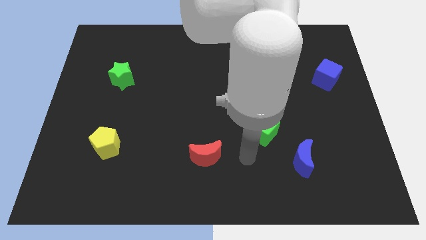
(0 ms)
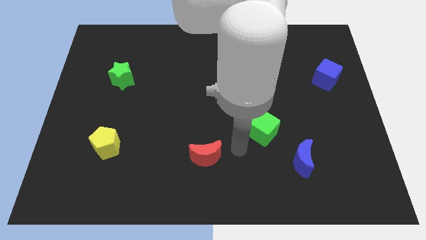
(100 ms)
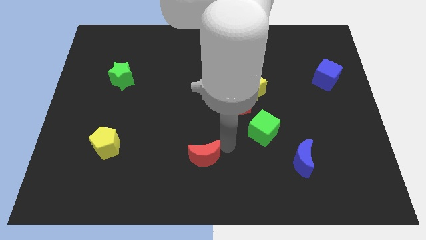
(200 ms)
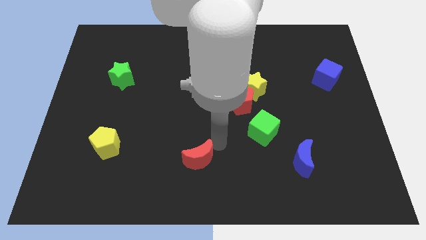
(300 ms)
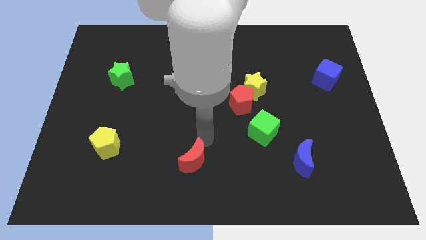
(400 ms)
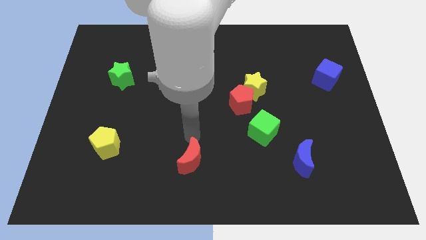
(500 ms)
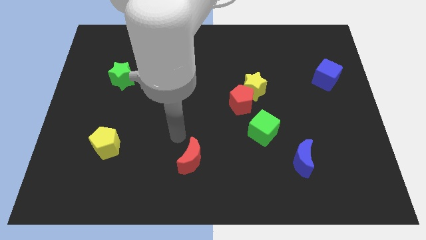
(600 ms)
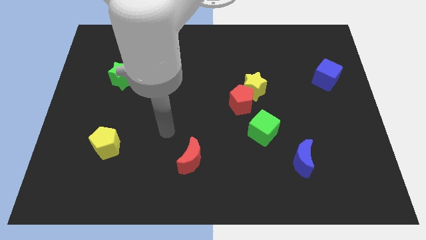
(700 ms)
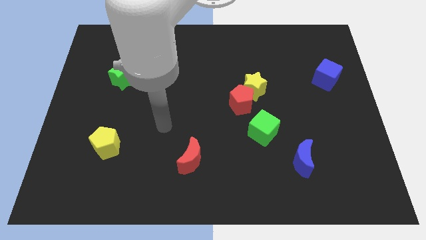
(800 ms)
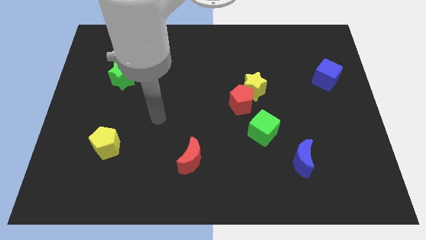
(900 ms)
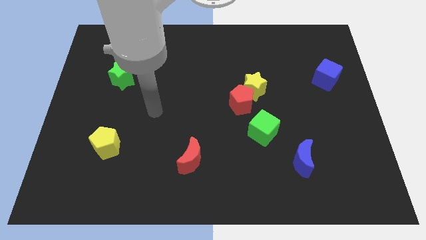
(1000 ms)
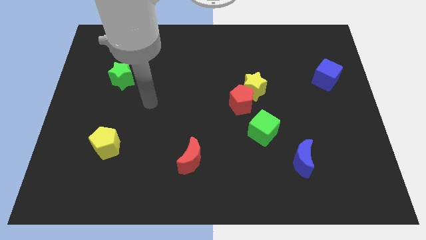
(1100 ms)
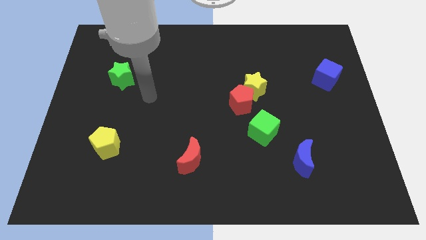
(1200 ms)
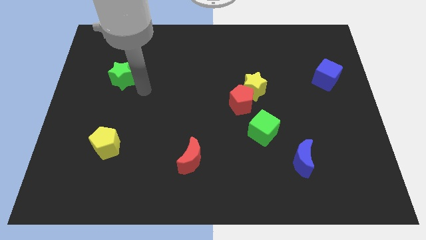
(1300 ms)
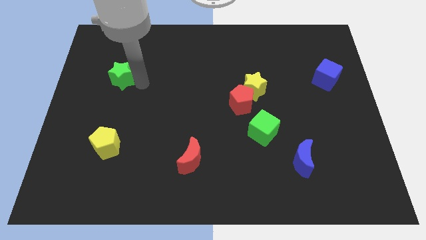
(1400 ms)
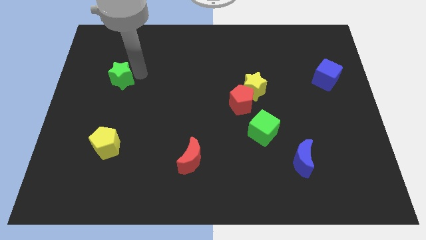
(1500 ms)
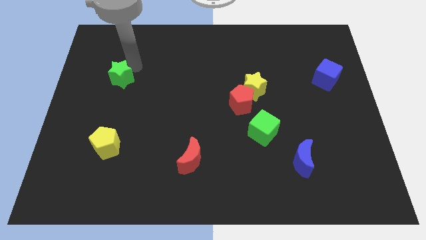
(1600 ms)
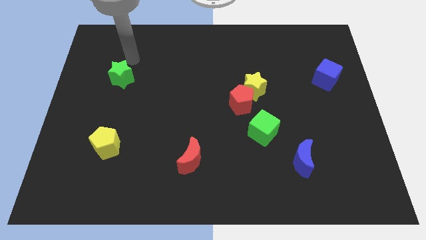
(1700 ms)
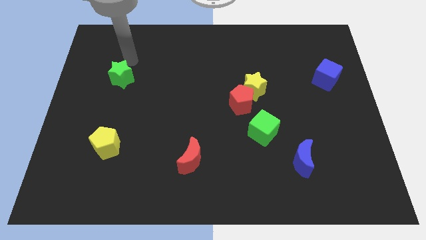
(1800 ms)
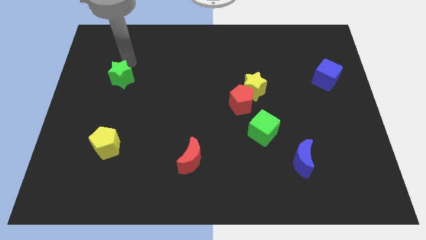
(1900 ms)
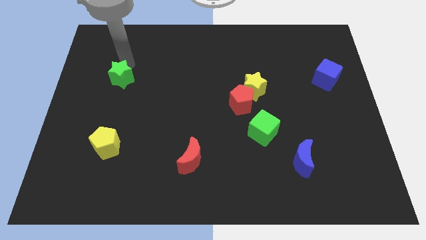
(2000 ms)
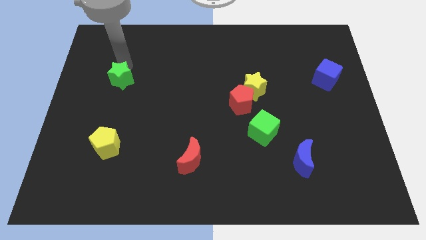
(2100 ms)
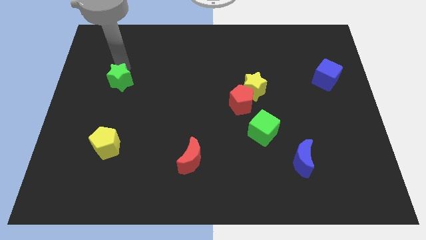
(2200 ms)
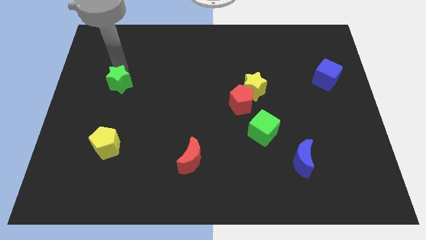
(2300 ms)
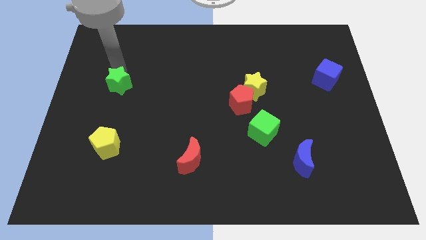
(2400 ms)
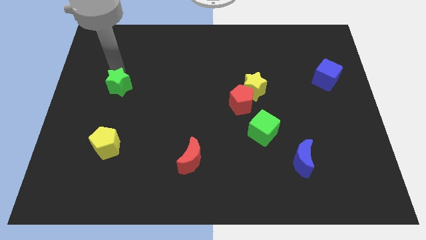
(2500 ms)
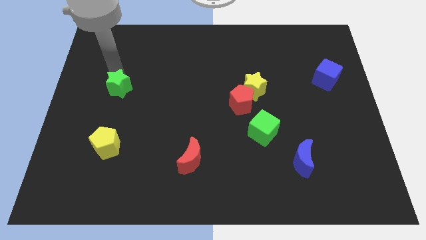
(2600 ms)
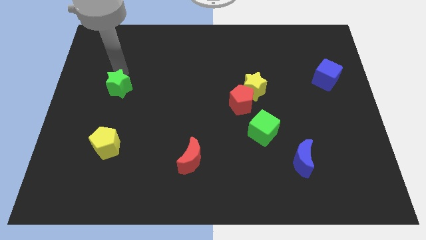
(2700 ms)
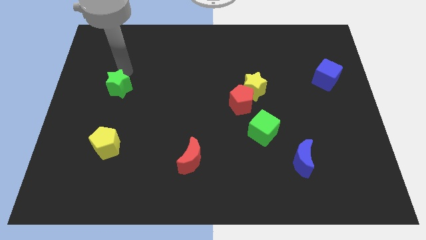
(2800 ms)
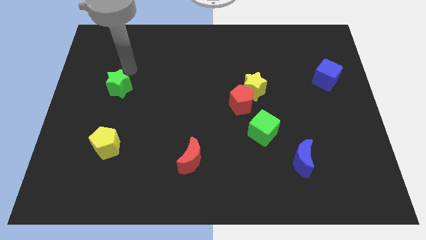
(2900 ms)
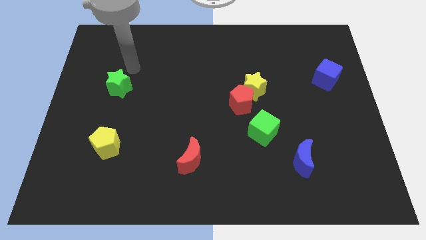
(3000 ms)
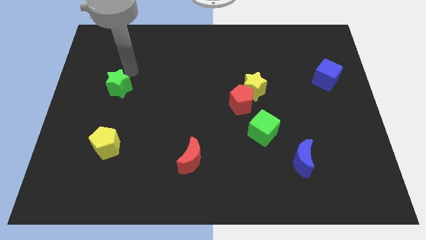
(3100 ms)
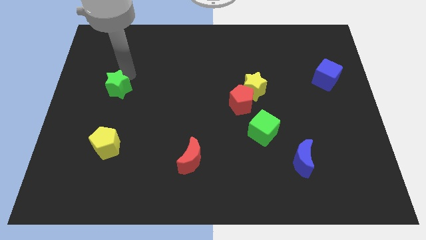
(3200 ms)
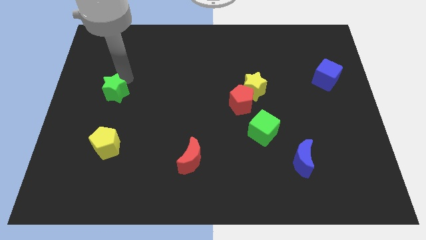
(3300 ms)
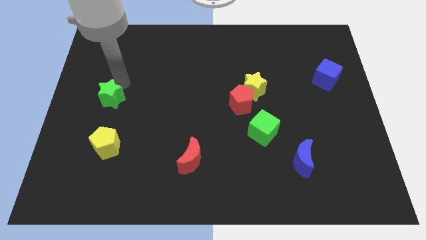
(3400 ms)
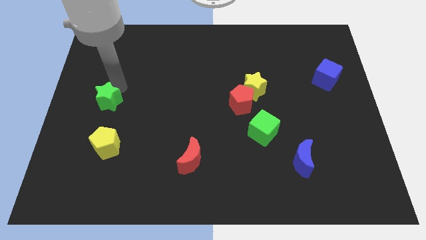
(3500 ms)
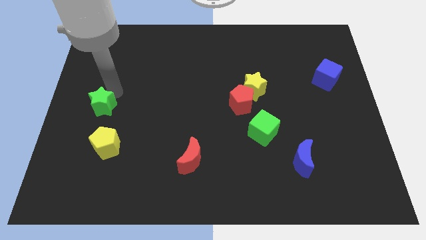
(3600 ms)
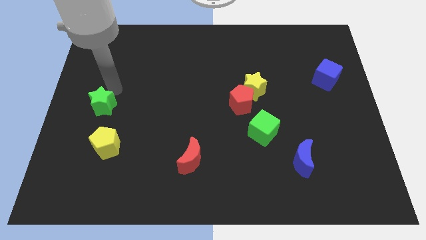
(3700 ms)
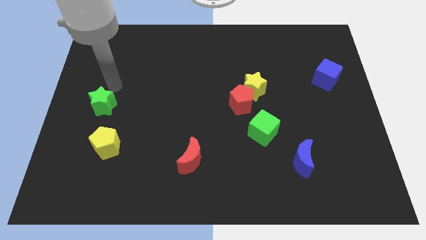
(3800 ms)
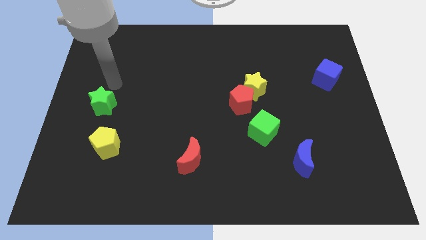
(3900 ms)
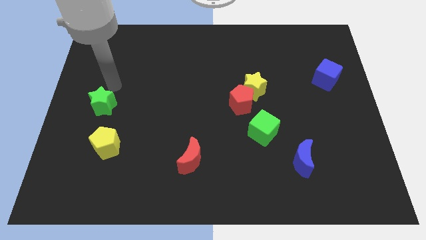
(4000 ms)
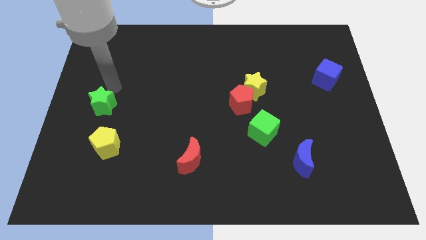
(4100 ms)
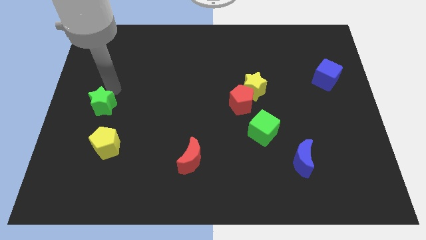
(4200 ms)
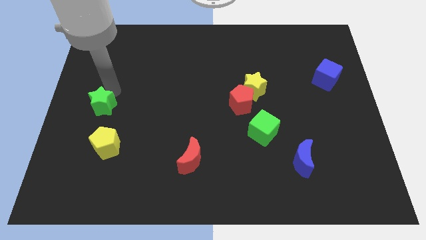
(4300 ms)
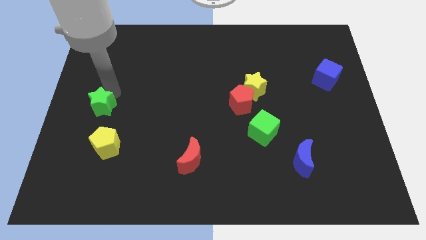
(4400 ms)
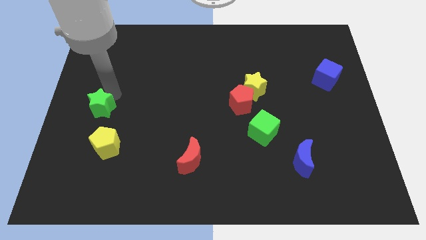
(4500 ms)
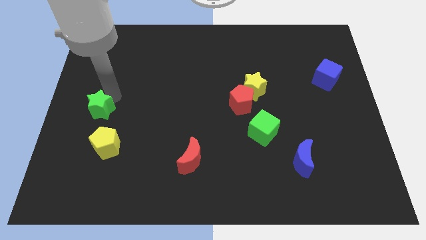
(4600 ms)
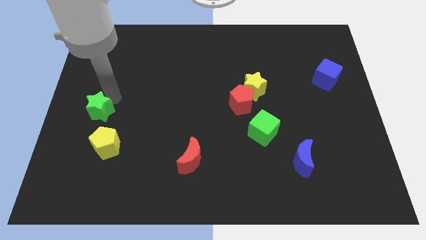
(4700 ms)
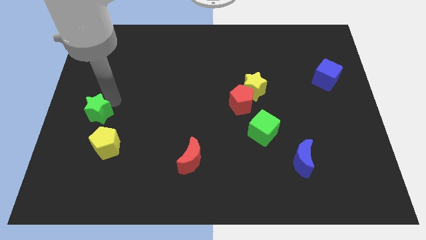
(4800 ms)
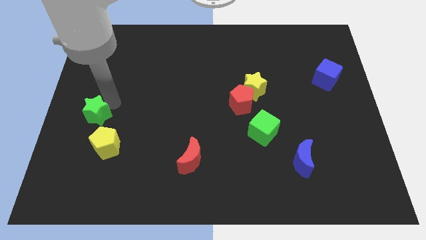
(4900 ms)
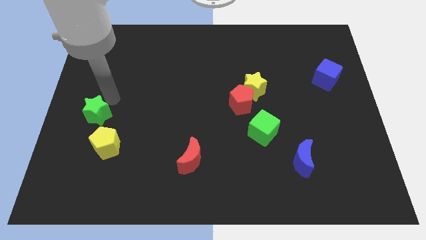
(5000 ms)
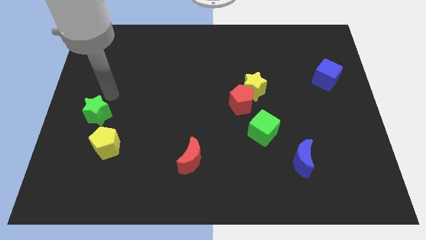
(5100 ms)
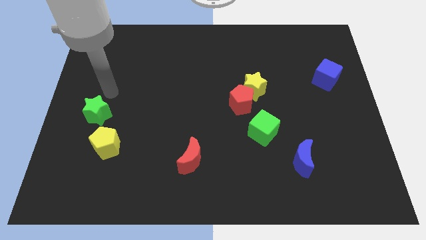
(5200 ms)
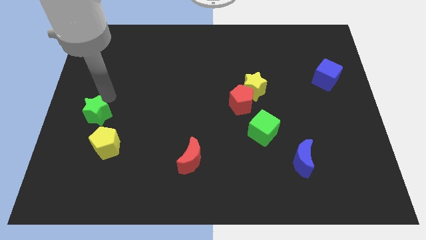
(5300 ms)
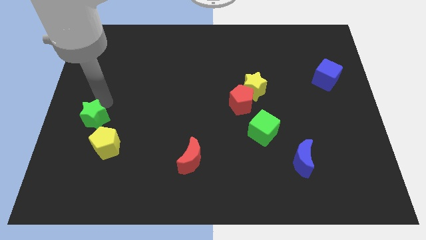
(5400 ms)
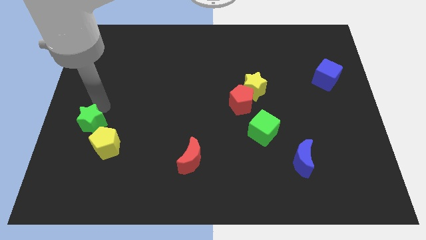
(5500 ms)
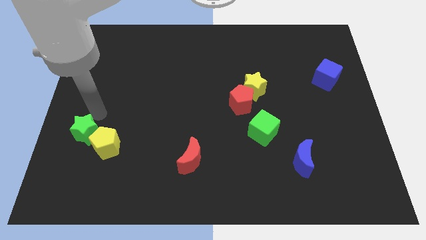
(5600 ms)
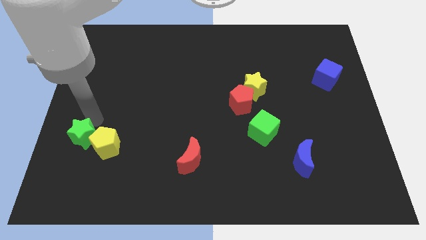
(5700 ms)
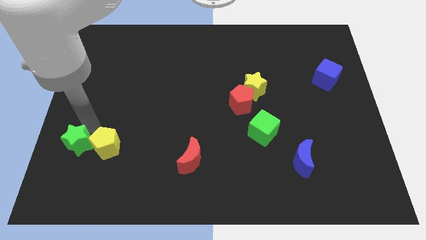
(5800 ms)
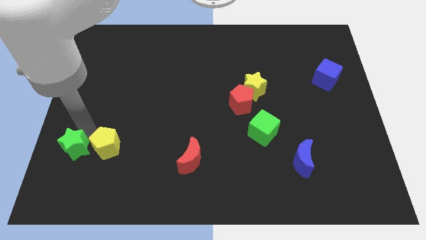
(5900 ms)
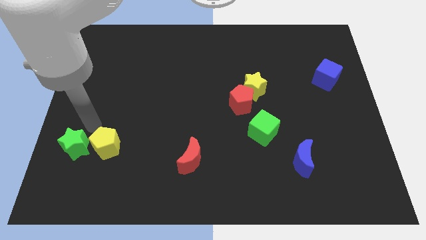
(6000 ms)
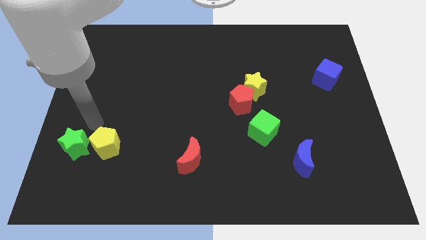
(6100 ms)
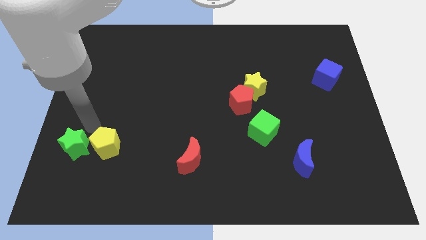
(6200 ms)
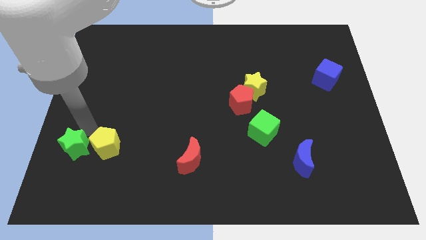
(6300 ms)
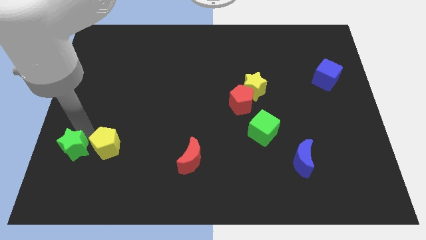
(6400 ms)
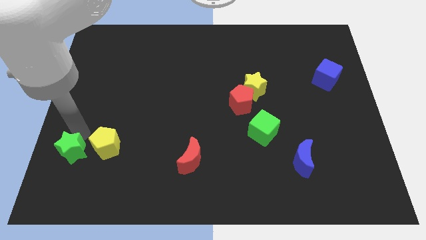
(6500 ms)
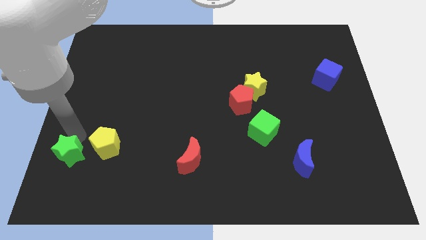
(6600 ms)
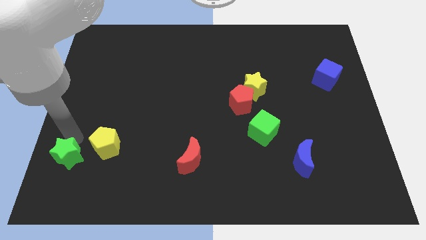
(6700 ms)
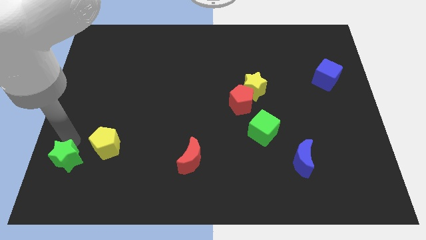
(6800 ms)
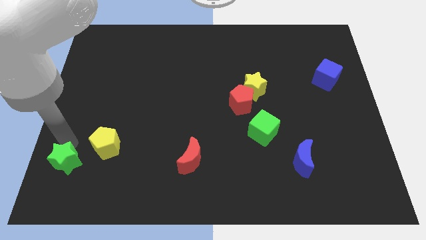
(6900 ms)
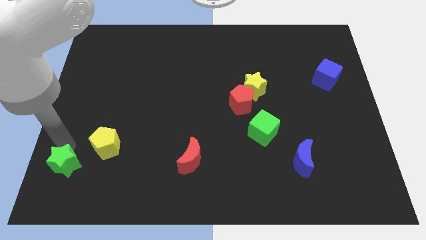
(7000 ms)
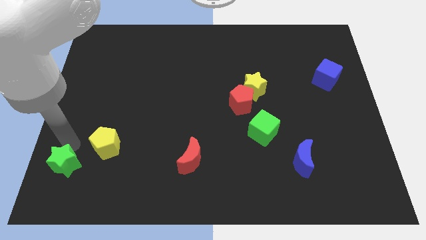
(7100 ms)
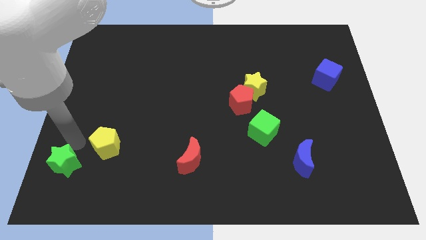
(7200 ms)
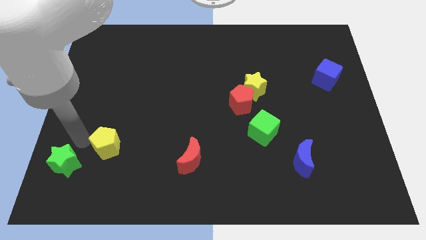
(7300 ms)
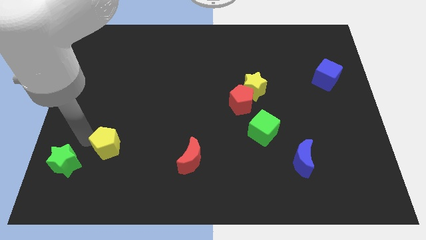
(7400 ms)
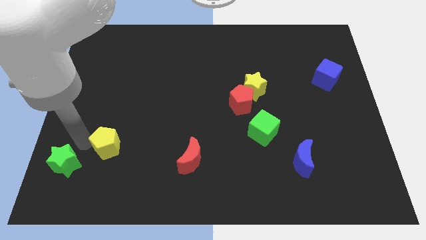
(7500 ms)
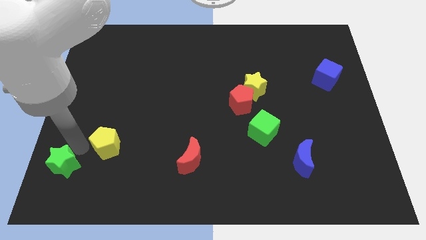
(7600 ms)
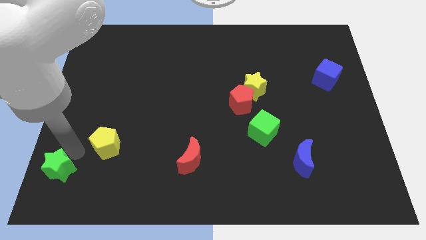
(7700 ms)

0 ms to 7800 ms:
slide the green star to the lower left corner
